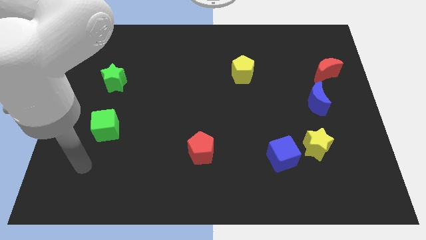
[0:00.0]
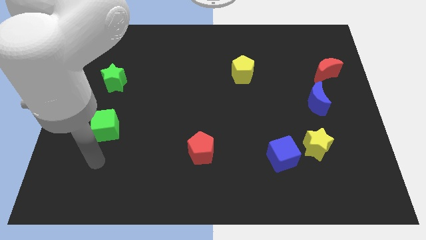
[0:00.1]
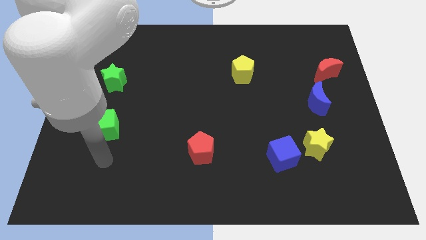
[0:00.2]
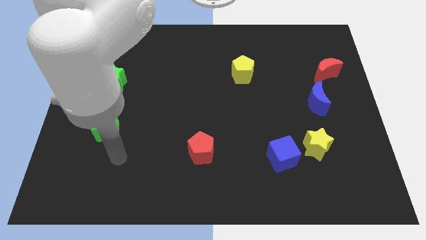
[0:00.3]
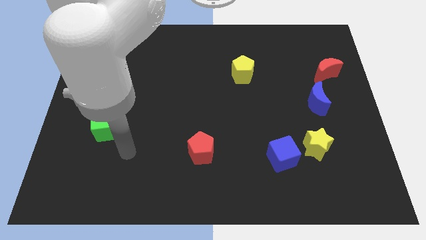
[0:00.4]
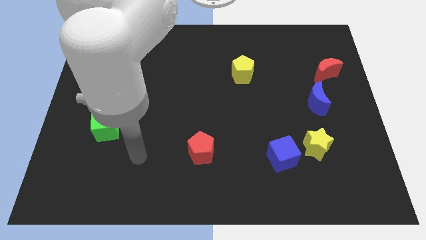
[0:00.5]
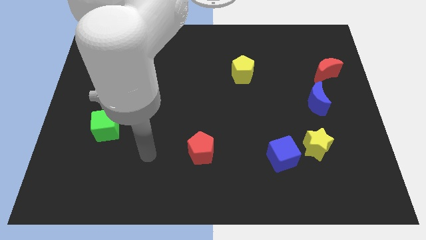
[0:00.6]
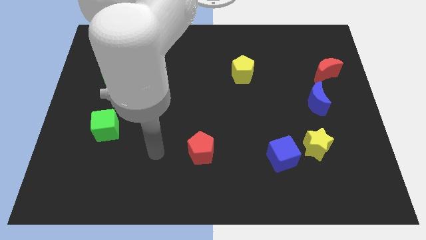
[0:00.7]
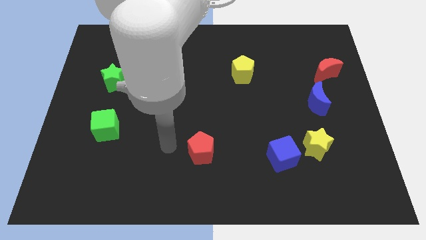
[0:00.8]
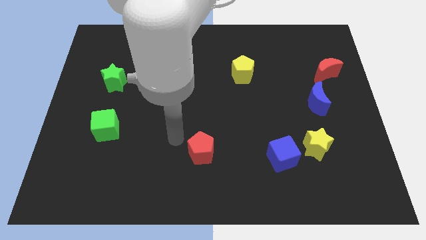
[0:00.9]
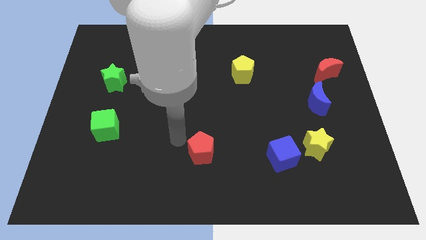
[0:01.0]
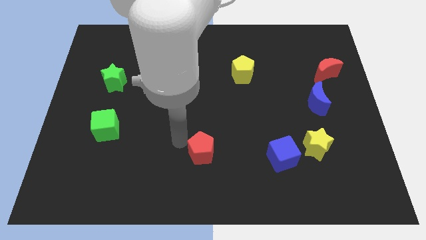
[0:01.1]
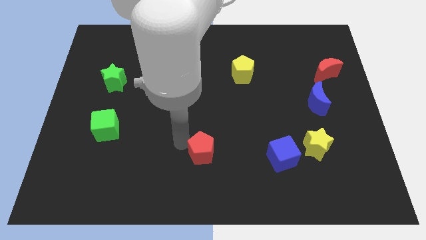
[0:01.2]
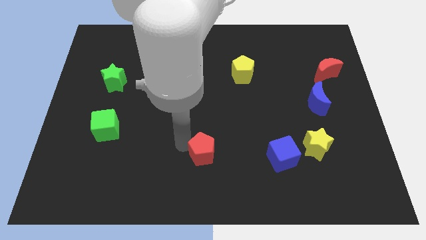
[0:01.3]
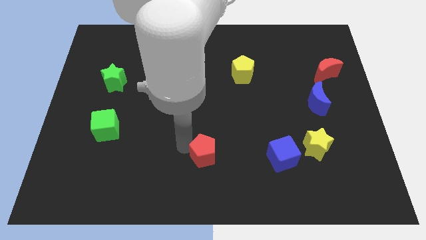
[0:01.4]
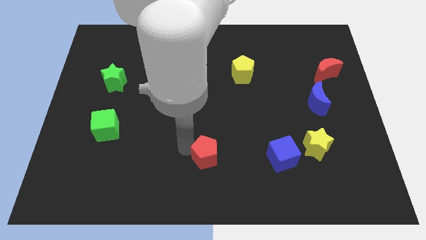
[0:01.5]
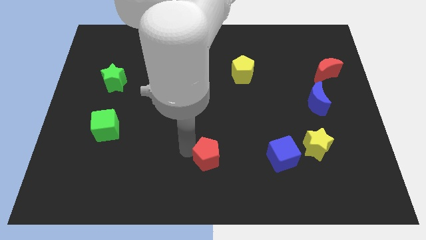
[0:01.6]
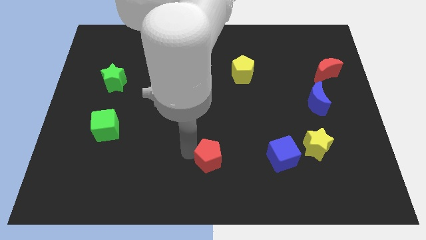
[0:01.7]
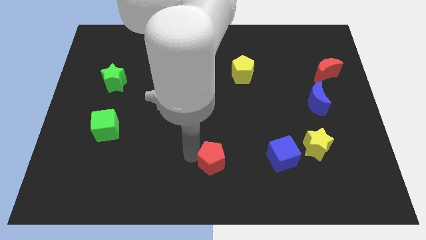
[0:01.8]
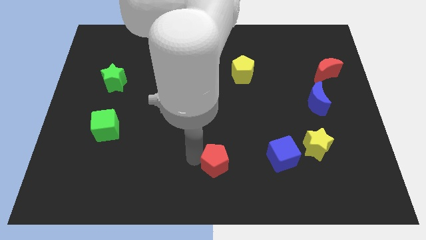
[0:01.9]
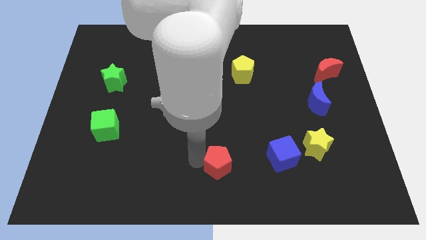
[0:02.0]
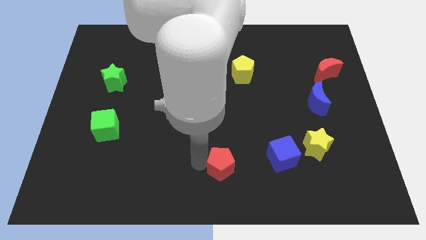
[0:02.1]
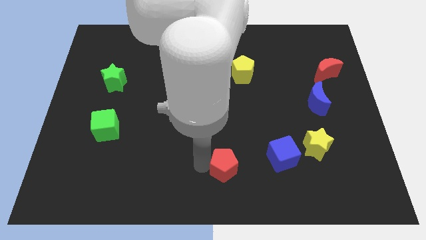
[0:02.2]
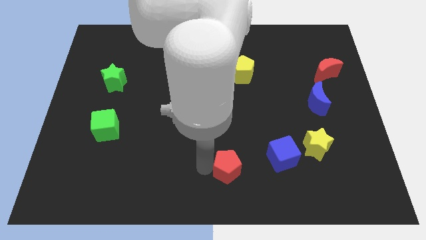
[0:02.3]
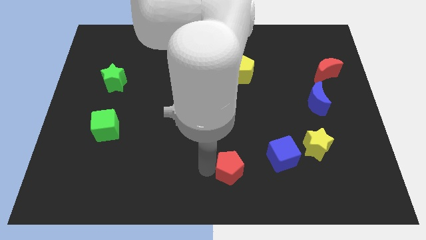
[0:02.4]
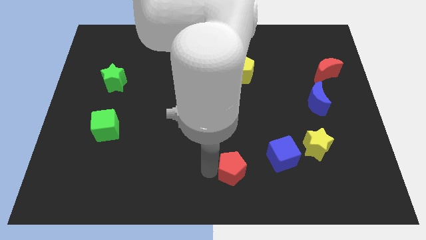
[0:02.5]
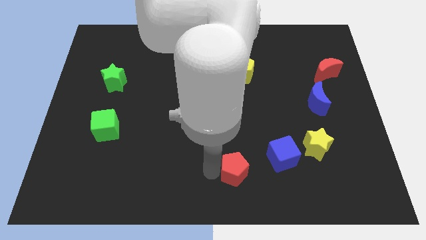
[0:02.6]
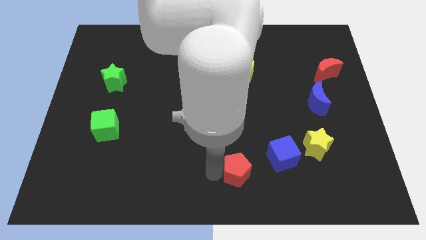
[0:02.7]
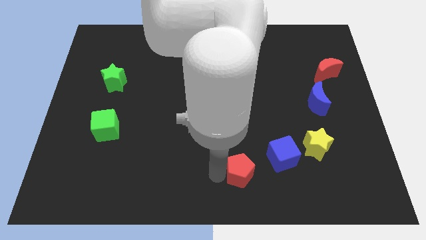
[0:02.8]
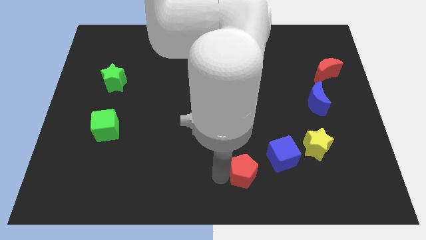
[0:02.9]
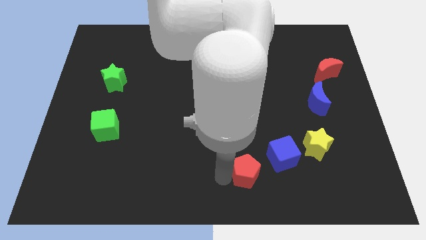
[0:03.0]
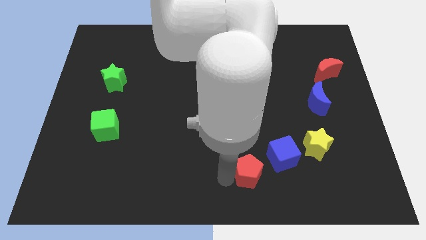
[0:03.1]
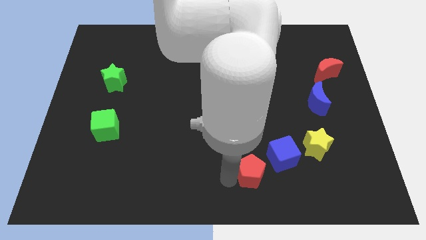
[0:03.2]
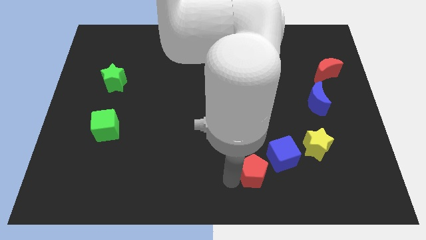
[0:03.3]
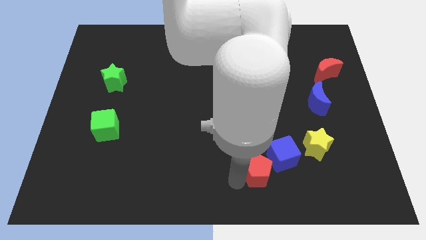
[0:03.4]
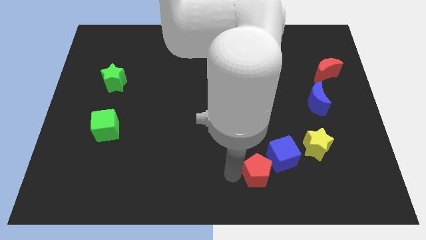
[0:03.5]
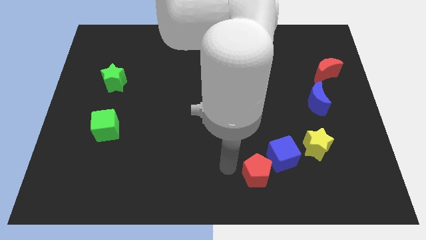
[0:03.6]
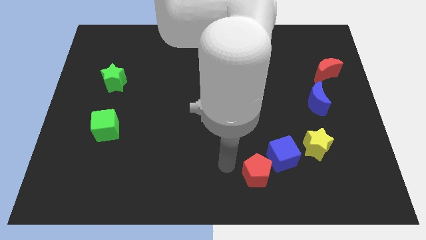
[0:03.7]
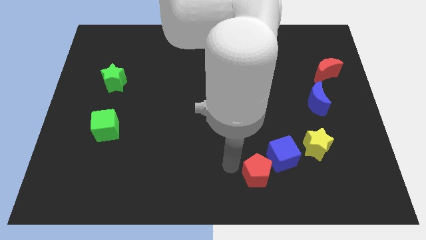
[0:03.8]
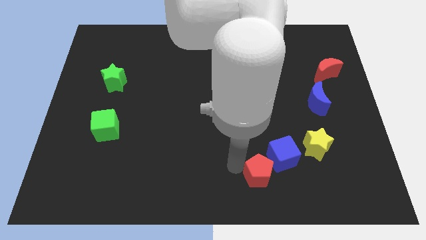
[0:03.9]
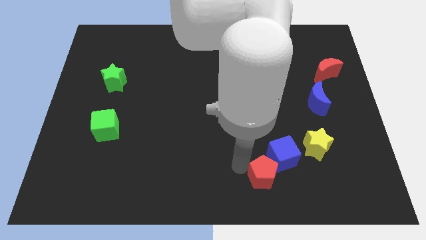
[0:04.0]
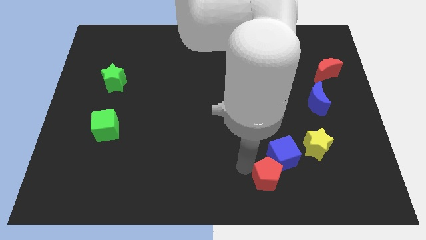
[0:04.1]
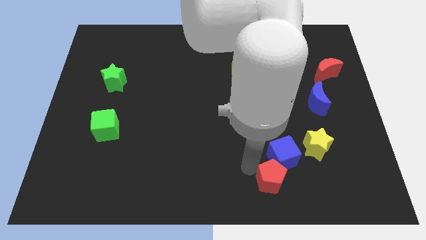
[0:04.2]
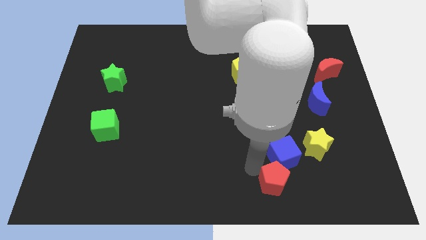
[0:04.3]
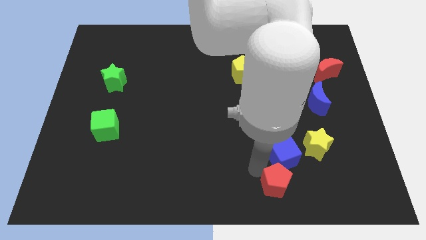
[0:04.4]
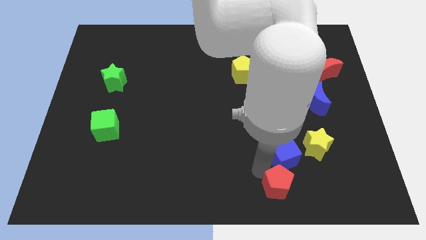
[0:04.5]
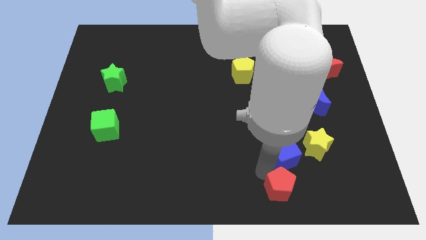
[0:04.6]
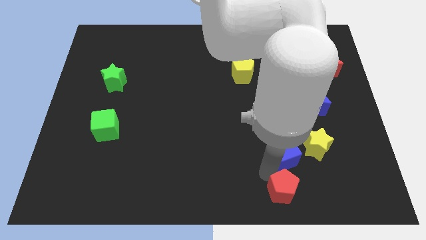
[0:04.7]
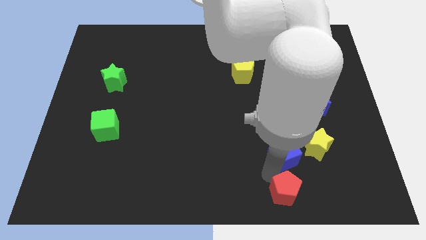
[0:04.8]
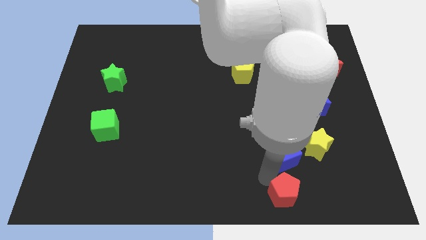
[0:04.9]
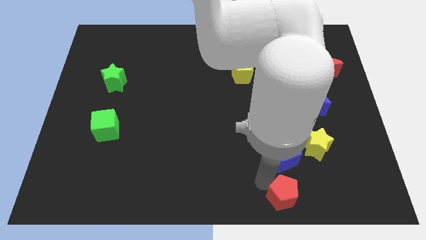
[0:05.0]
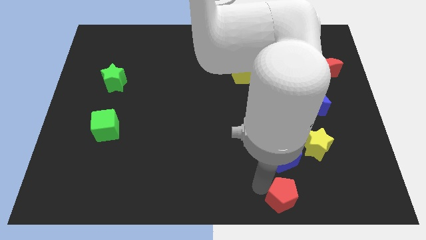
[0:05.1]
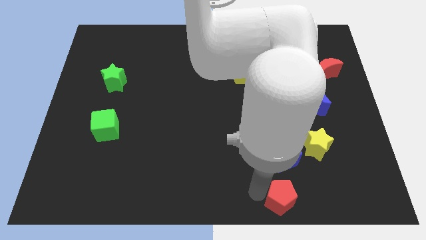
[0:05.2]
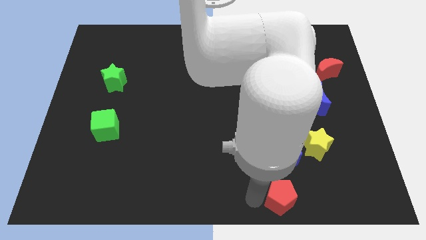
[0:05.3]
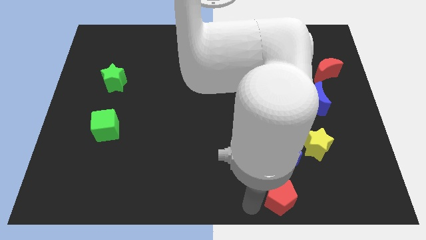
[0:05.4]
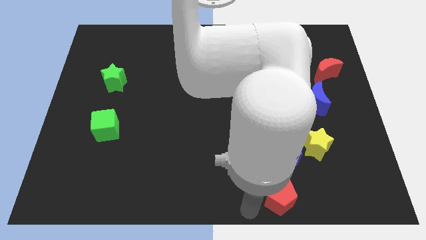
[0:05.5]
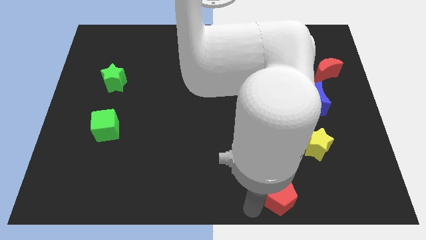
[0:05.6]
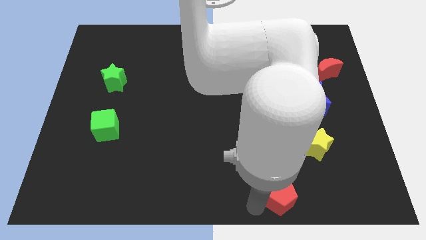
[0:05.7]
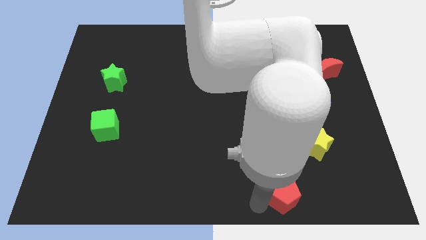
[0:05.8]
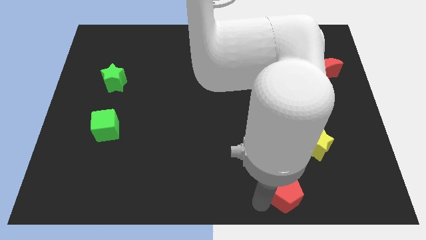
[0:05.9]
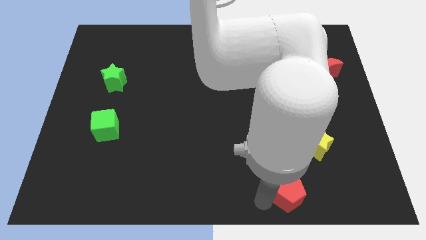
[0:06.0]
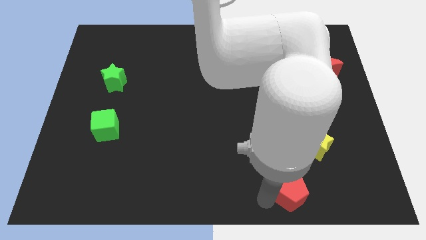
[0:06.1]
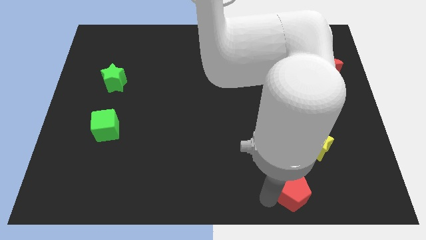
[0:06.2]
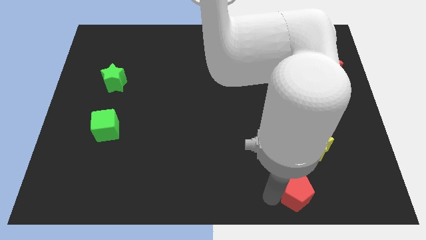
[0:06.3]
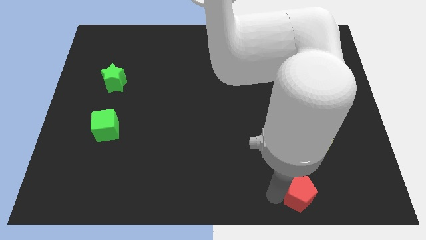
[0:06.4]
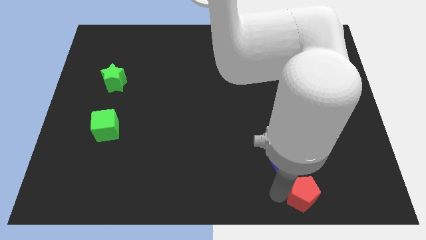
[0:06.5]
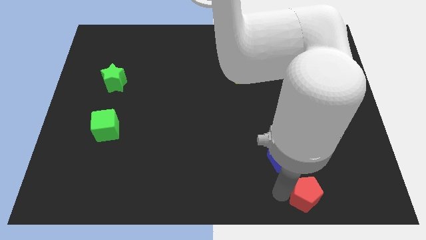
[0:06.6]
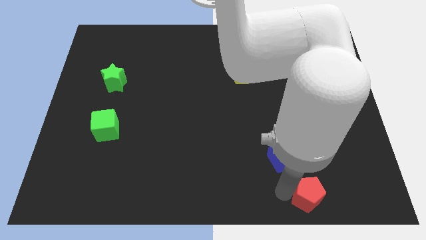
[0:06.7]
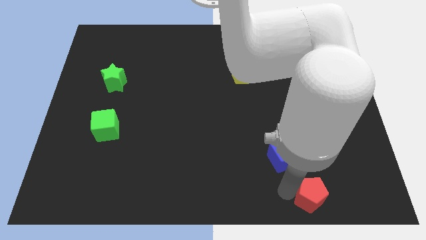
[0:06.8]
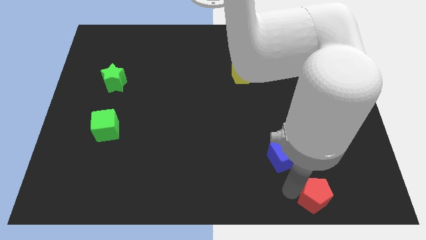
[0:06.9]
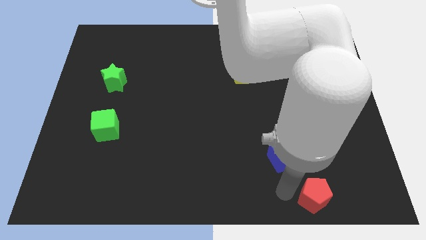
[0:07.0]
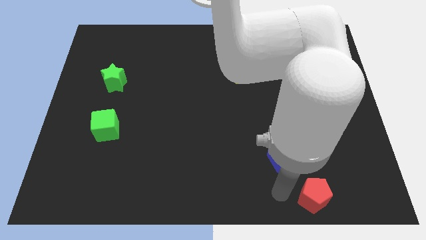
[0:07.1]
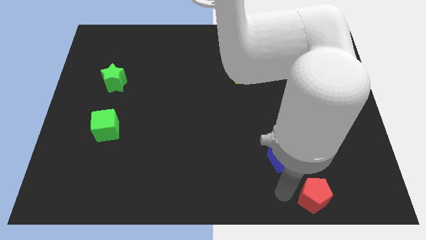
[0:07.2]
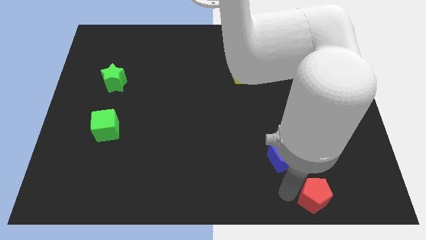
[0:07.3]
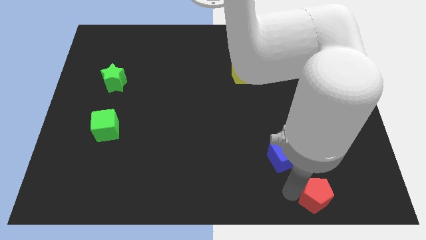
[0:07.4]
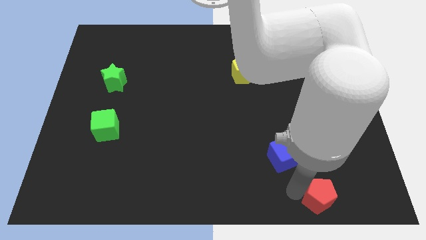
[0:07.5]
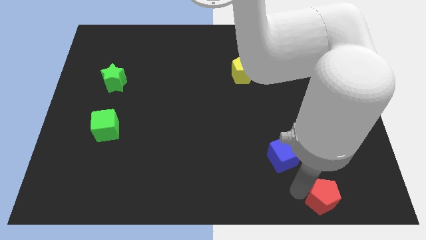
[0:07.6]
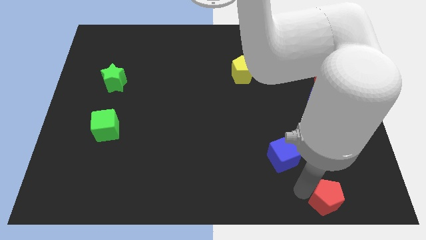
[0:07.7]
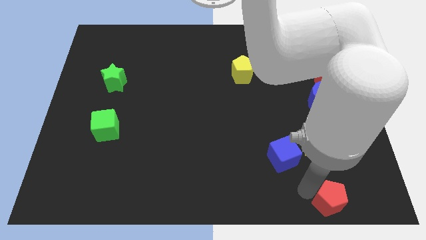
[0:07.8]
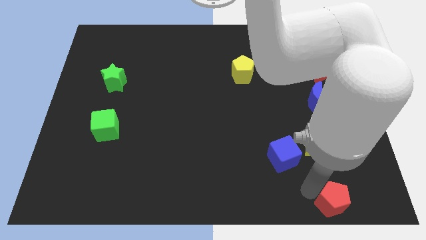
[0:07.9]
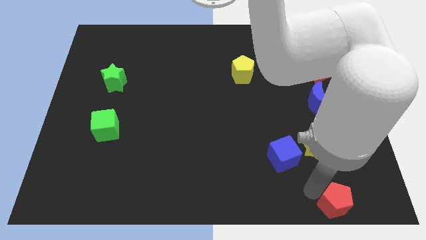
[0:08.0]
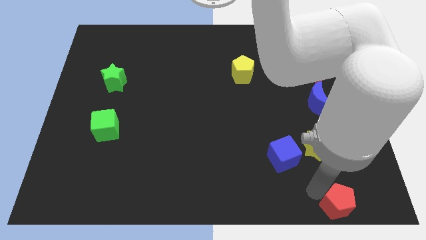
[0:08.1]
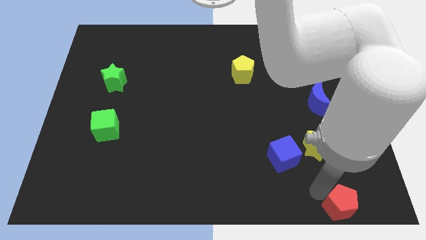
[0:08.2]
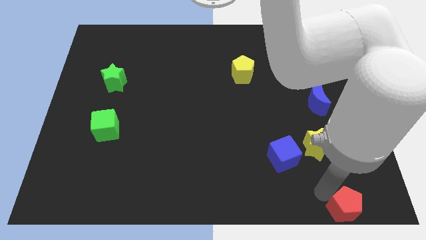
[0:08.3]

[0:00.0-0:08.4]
move the red pentagon to the lower right corner
